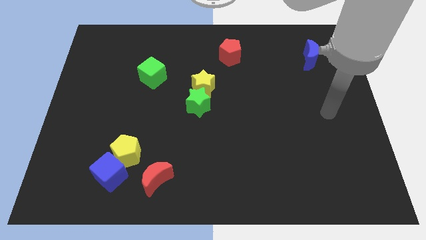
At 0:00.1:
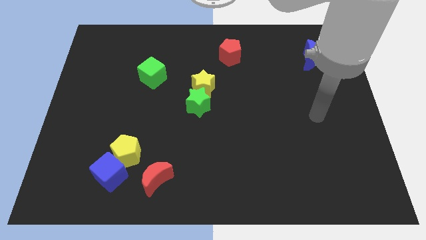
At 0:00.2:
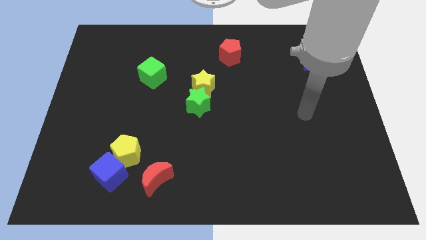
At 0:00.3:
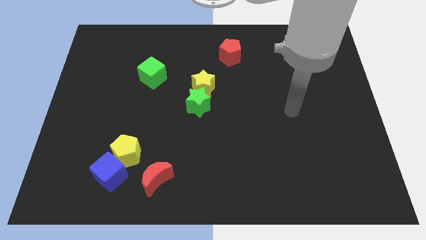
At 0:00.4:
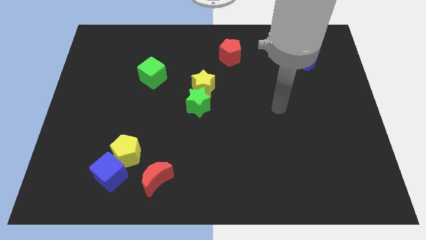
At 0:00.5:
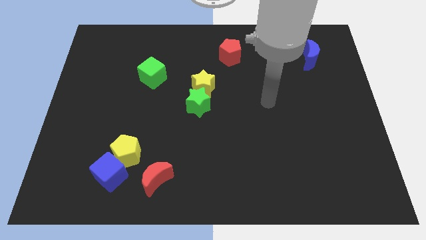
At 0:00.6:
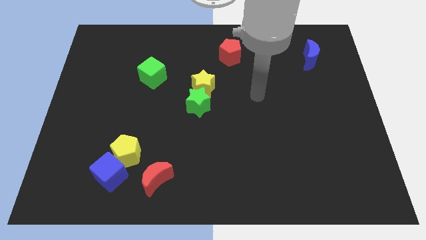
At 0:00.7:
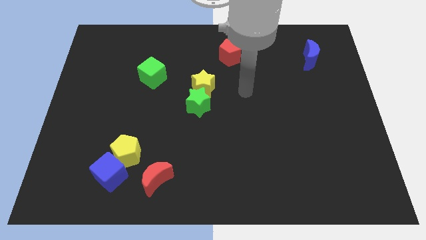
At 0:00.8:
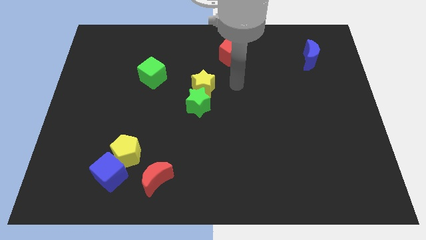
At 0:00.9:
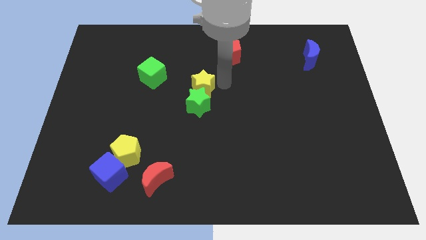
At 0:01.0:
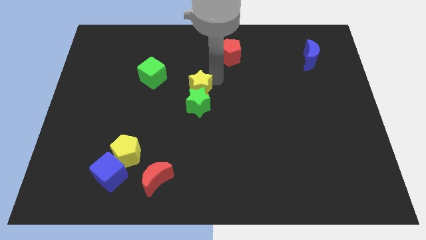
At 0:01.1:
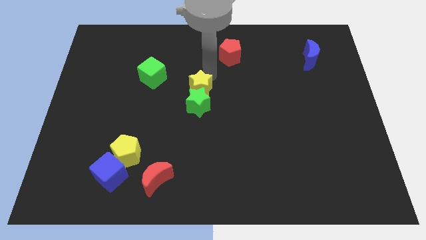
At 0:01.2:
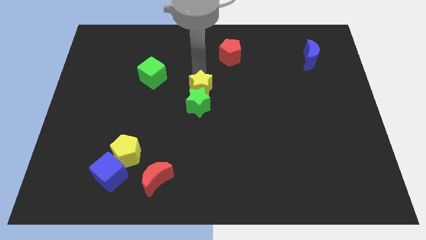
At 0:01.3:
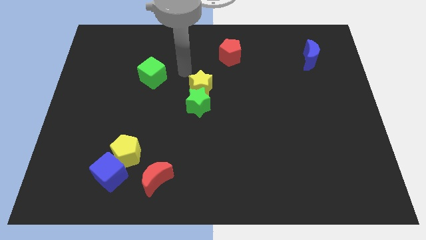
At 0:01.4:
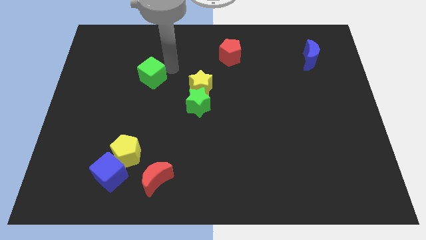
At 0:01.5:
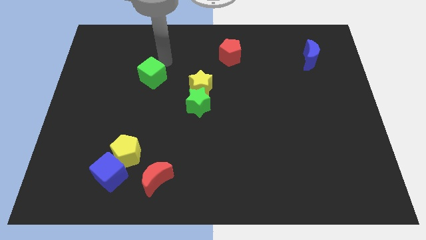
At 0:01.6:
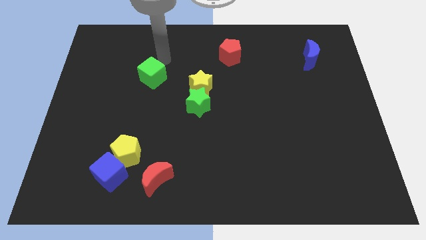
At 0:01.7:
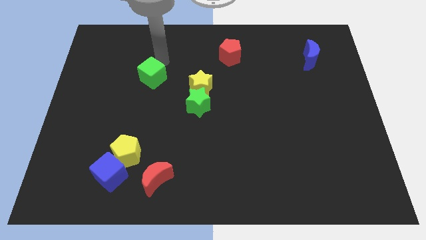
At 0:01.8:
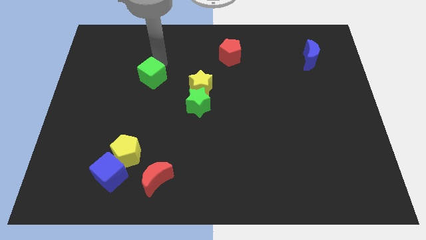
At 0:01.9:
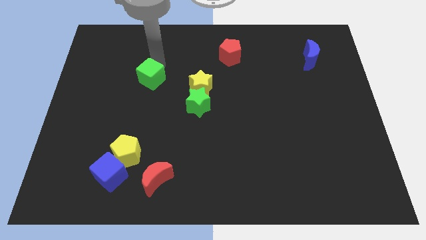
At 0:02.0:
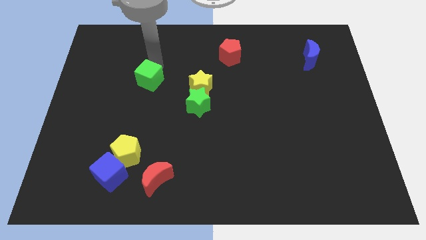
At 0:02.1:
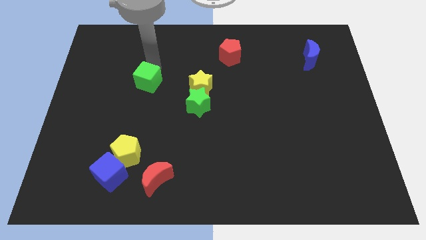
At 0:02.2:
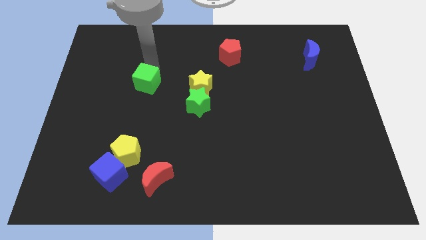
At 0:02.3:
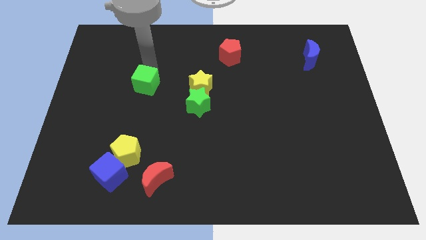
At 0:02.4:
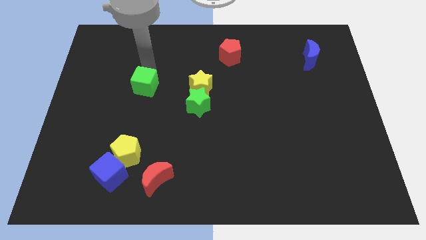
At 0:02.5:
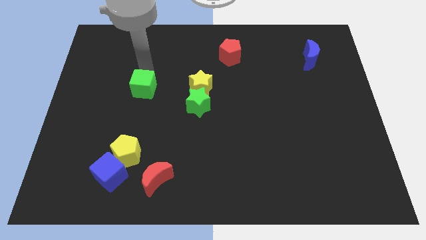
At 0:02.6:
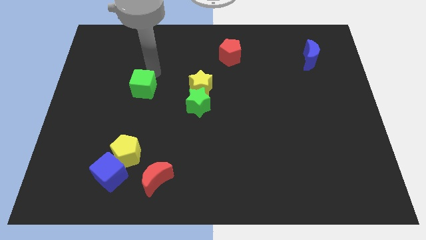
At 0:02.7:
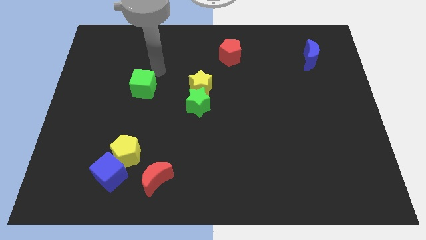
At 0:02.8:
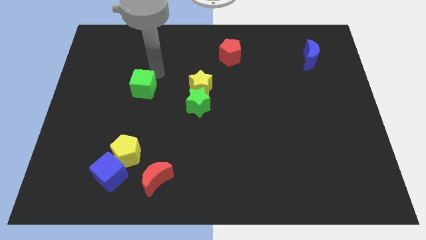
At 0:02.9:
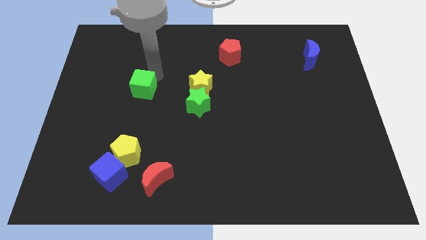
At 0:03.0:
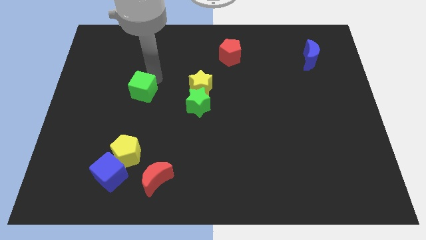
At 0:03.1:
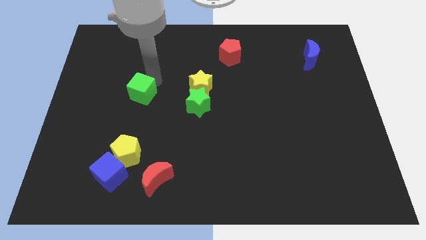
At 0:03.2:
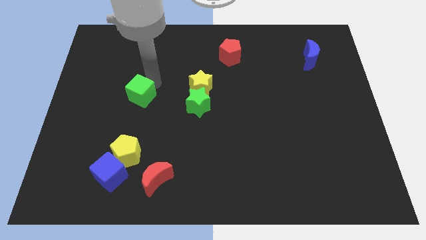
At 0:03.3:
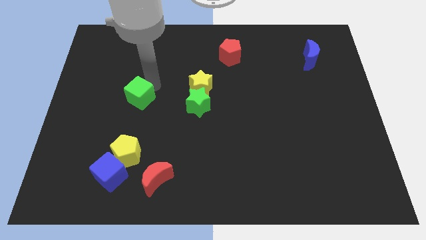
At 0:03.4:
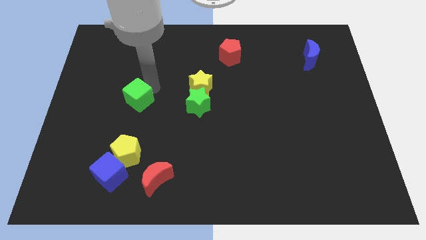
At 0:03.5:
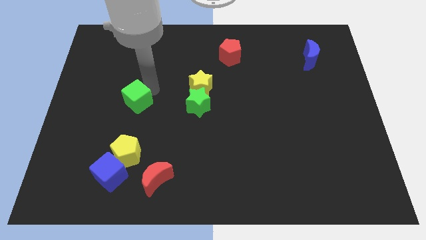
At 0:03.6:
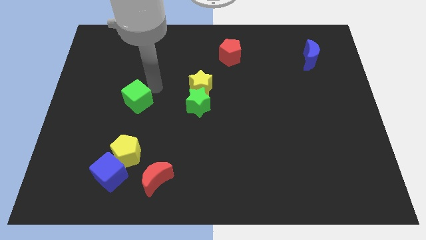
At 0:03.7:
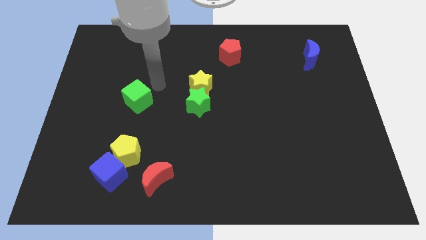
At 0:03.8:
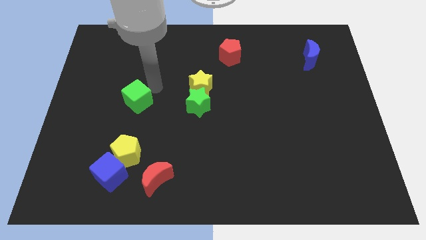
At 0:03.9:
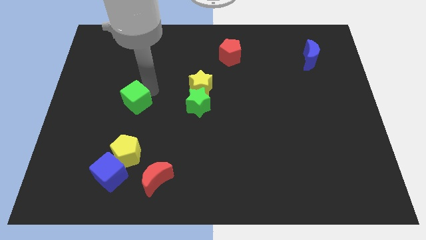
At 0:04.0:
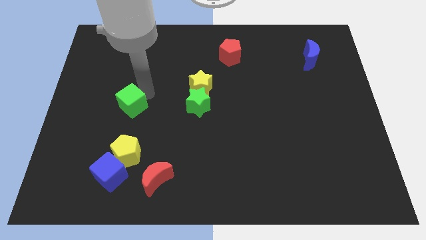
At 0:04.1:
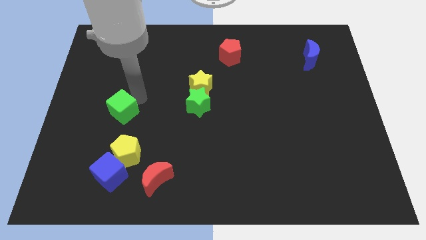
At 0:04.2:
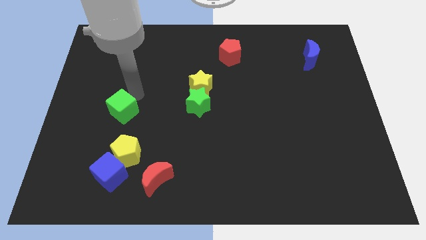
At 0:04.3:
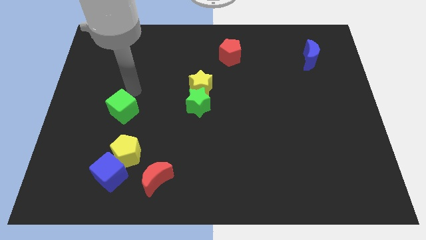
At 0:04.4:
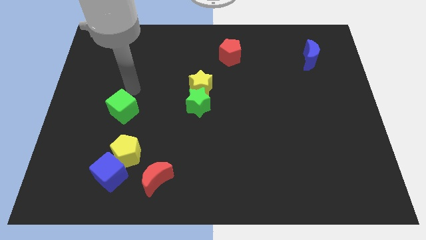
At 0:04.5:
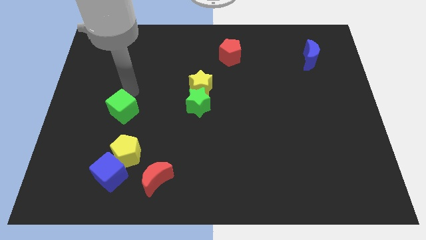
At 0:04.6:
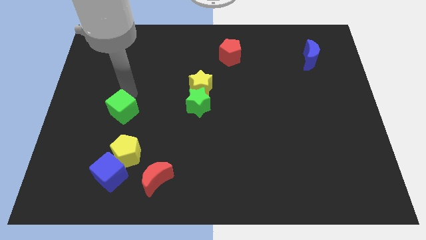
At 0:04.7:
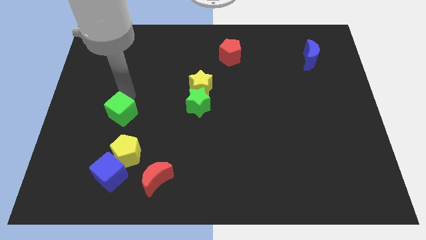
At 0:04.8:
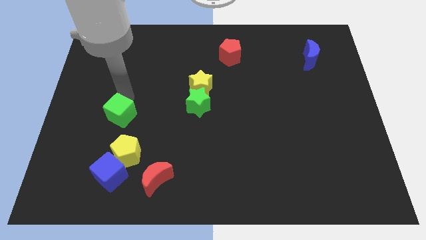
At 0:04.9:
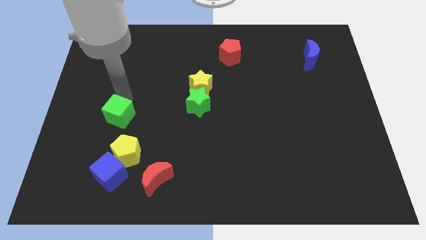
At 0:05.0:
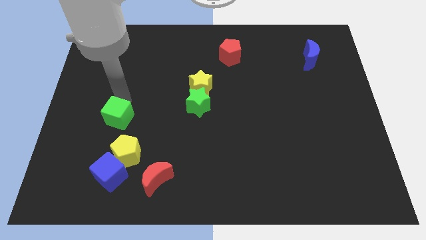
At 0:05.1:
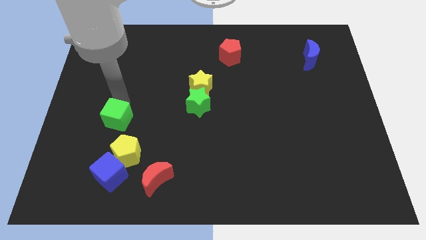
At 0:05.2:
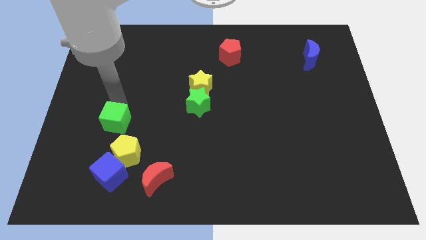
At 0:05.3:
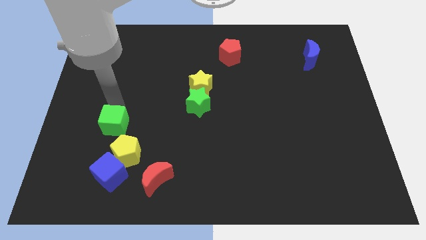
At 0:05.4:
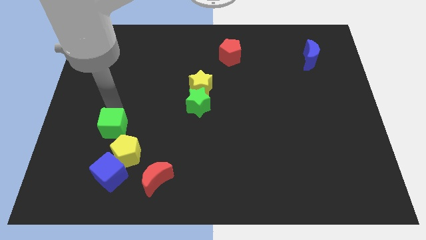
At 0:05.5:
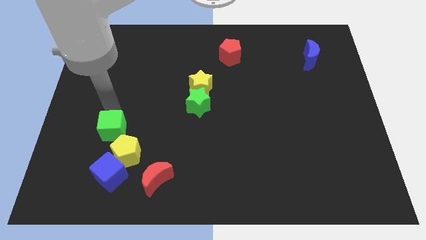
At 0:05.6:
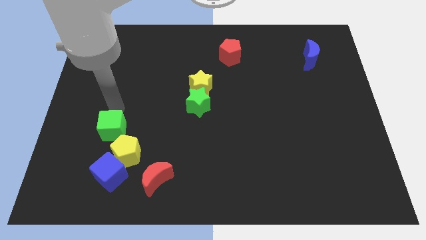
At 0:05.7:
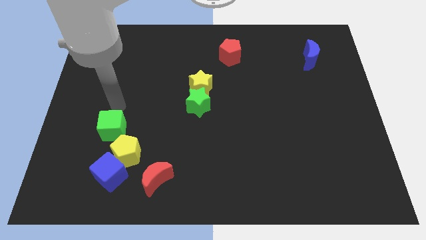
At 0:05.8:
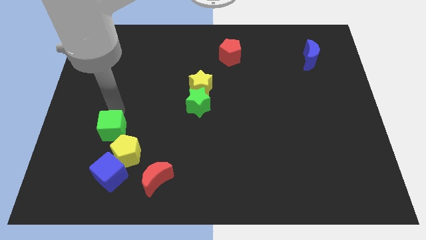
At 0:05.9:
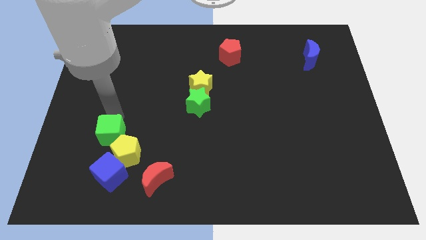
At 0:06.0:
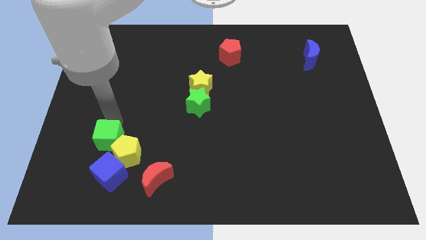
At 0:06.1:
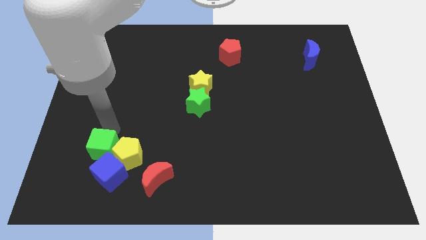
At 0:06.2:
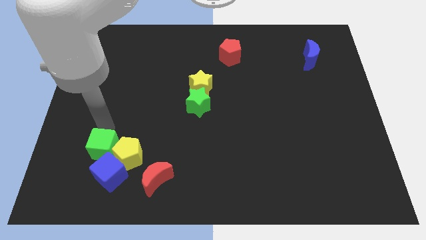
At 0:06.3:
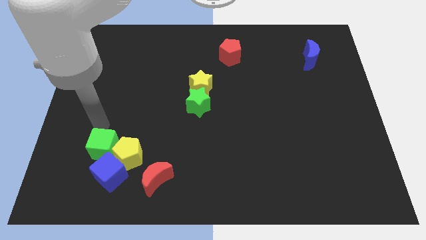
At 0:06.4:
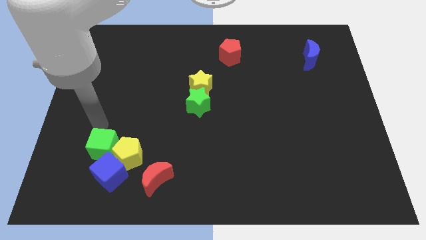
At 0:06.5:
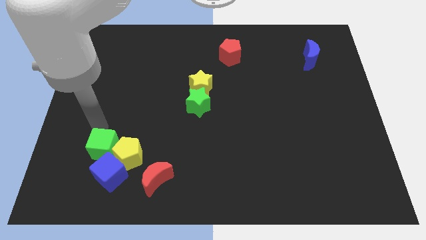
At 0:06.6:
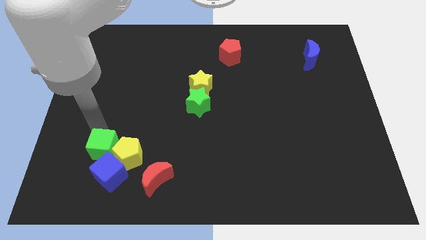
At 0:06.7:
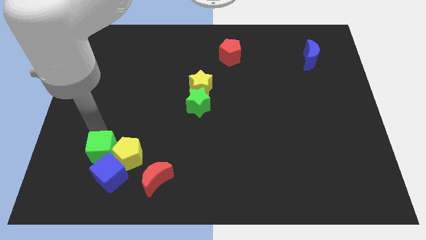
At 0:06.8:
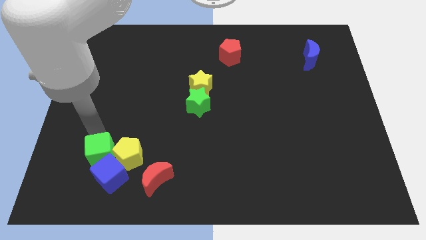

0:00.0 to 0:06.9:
push the green cube close to the blue cube

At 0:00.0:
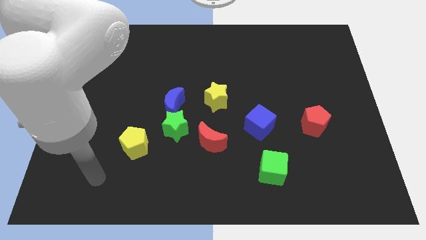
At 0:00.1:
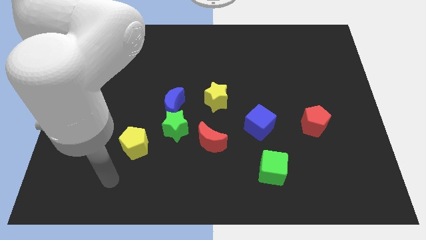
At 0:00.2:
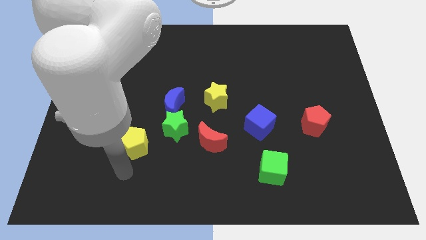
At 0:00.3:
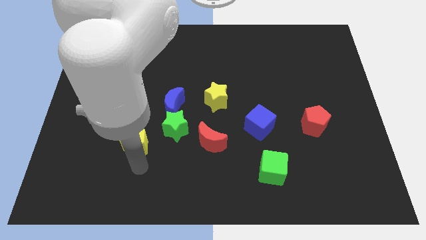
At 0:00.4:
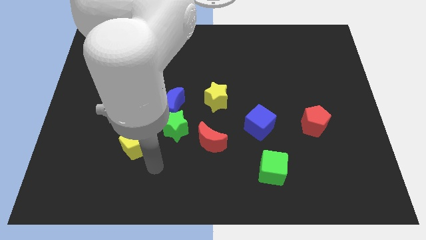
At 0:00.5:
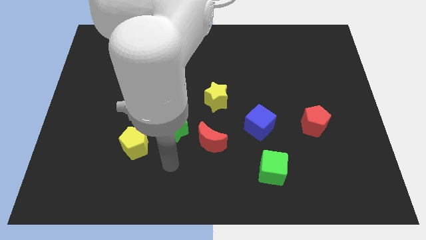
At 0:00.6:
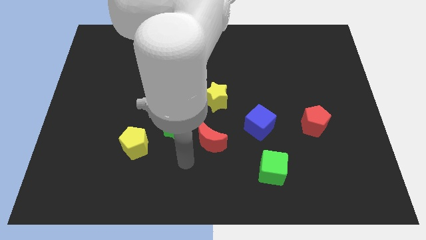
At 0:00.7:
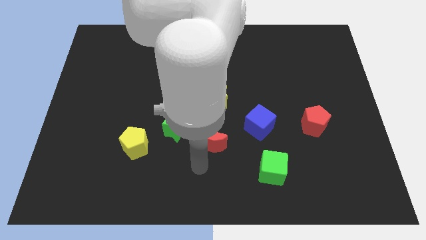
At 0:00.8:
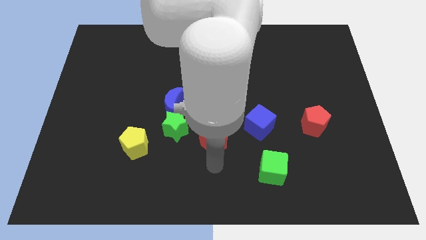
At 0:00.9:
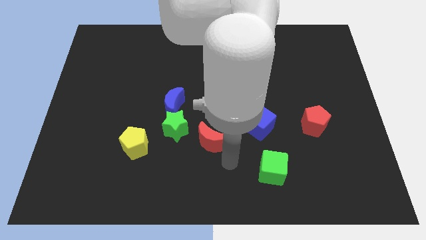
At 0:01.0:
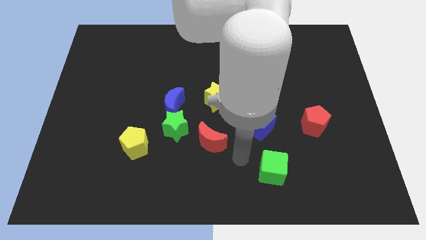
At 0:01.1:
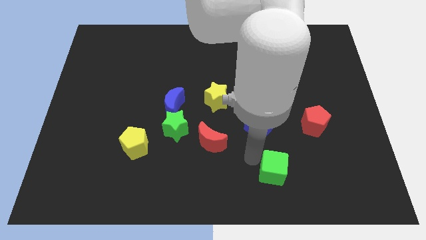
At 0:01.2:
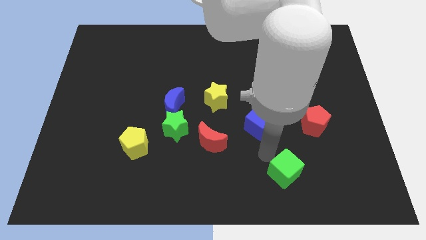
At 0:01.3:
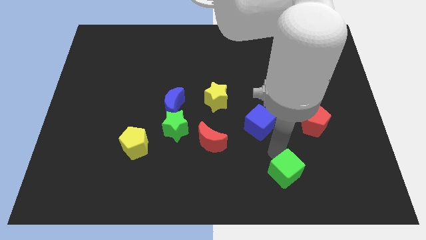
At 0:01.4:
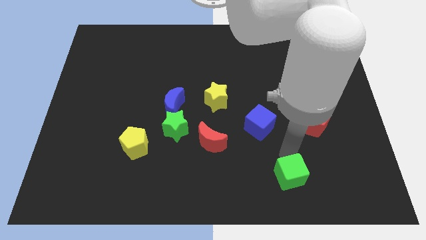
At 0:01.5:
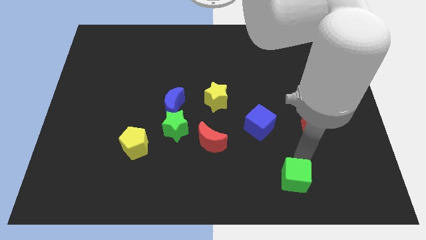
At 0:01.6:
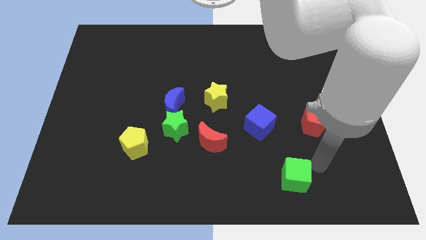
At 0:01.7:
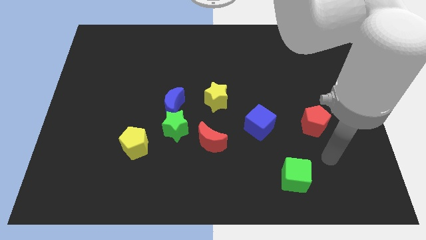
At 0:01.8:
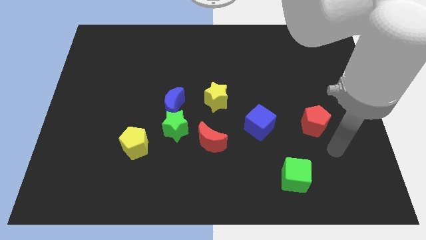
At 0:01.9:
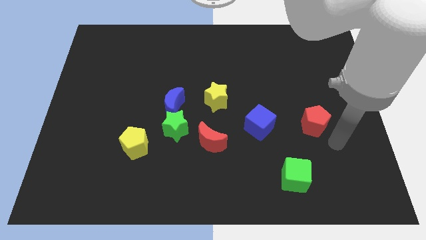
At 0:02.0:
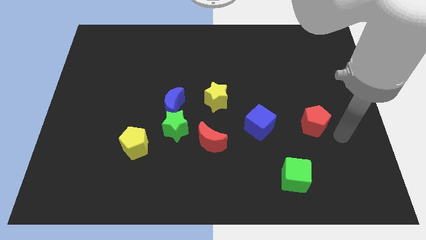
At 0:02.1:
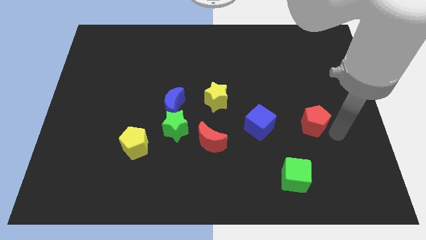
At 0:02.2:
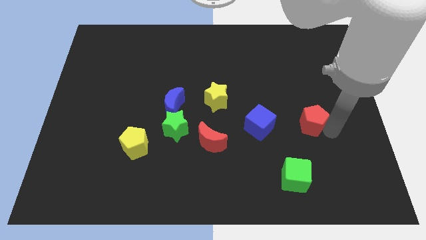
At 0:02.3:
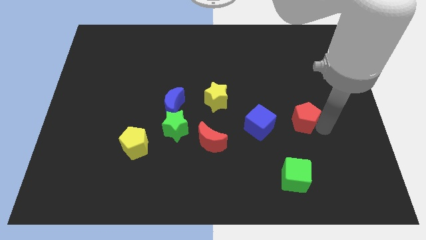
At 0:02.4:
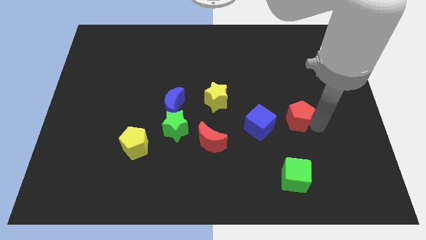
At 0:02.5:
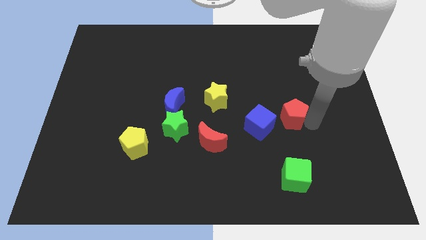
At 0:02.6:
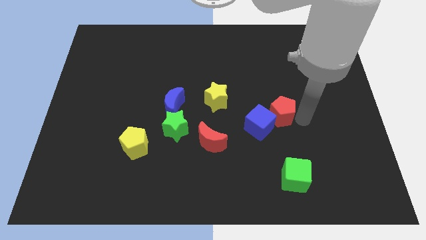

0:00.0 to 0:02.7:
push the red pentagon towards the blue cube
